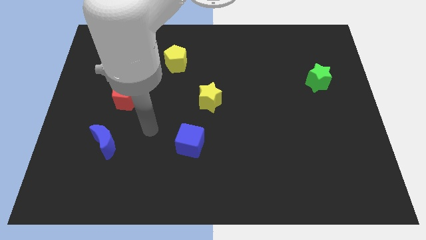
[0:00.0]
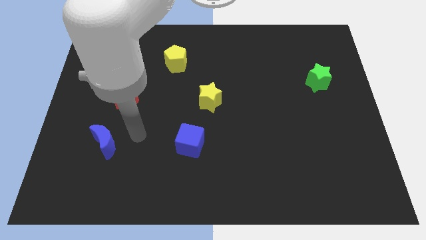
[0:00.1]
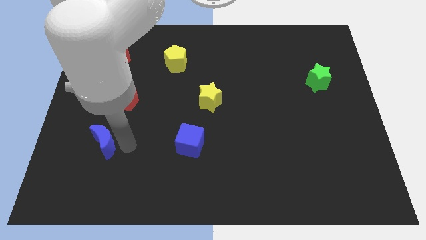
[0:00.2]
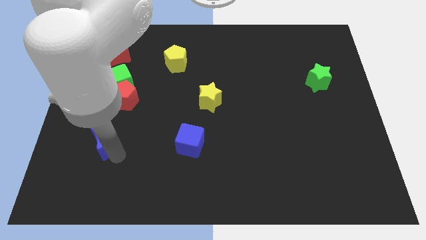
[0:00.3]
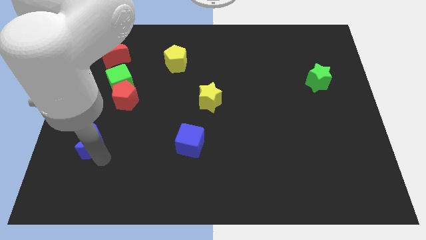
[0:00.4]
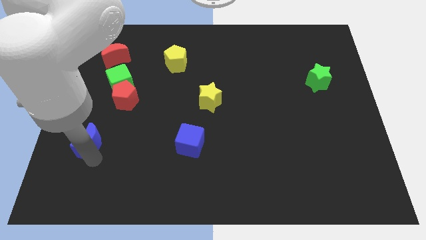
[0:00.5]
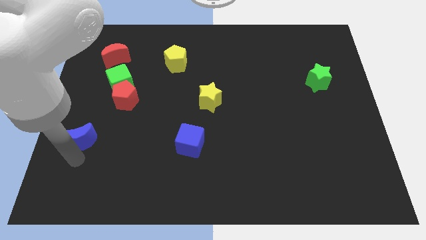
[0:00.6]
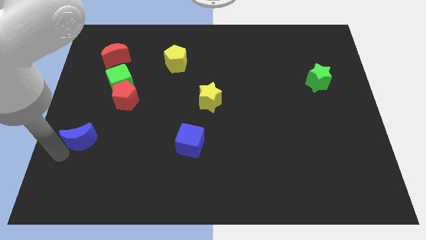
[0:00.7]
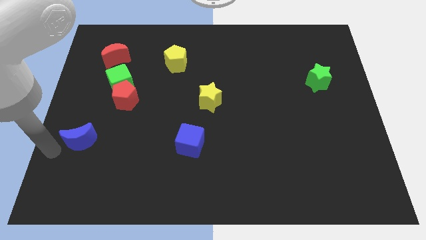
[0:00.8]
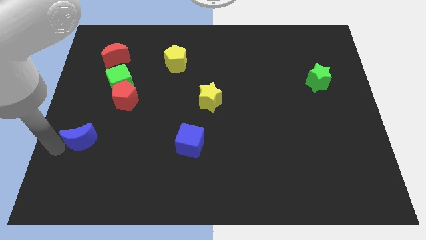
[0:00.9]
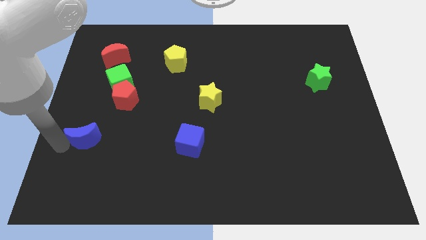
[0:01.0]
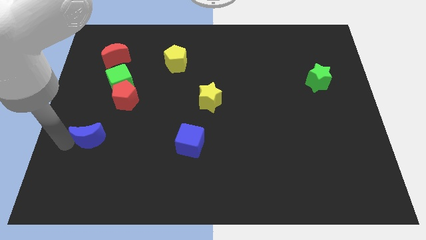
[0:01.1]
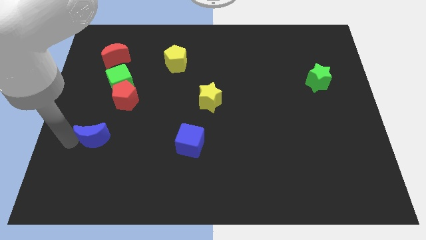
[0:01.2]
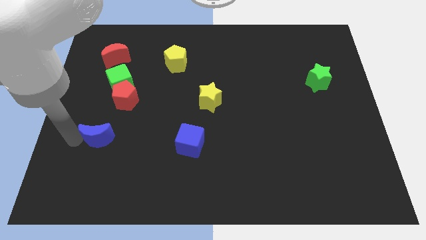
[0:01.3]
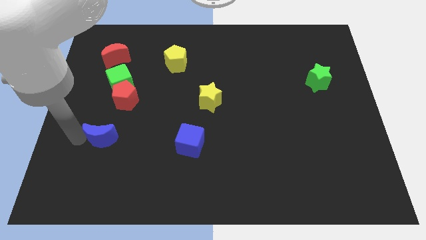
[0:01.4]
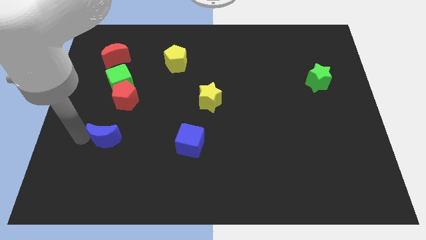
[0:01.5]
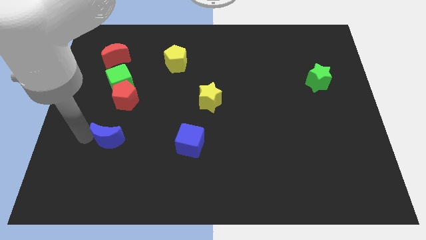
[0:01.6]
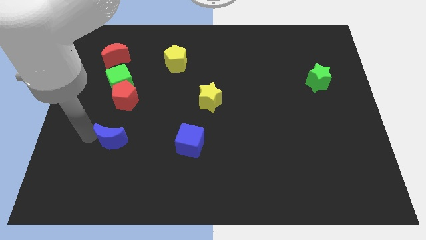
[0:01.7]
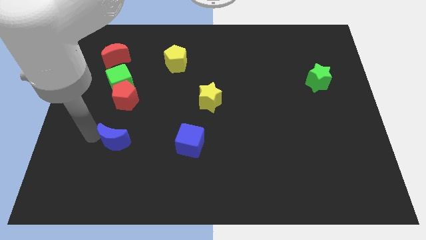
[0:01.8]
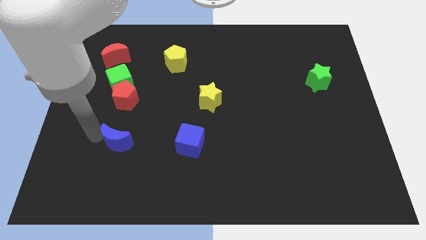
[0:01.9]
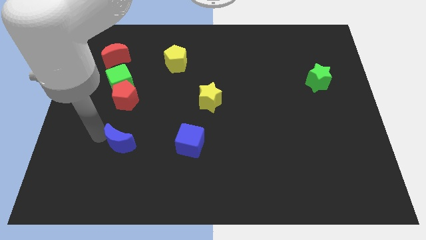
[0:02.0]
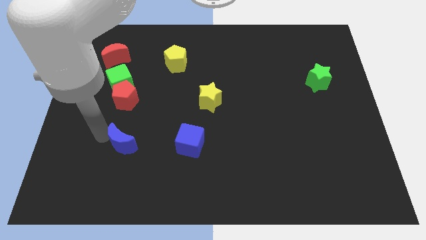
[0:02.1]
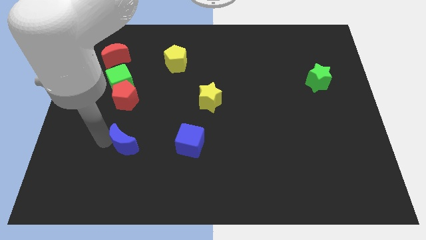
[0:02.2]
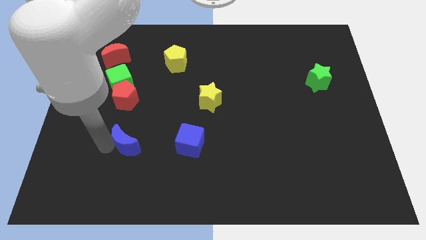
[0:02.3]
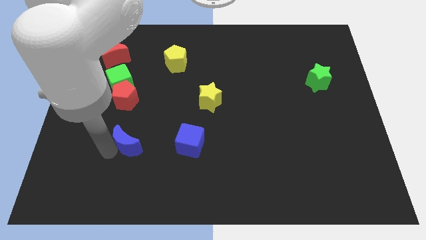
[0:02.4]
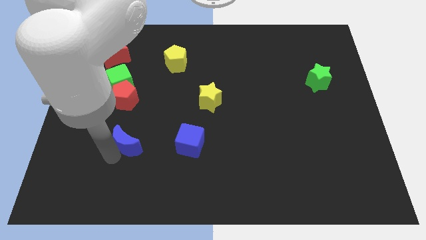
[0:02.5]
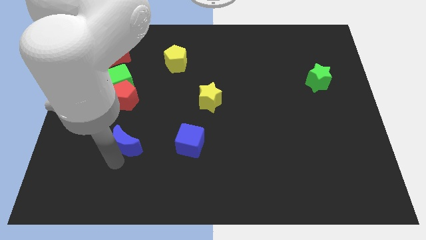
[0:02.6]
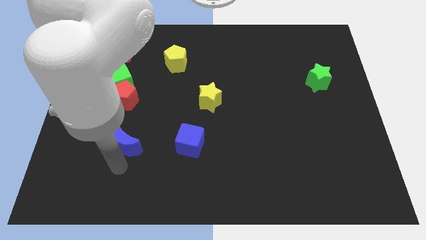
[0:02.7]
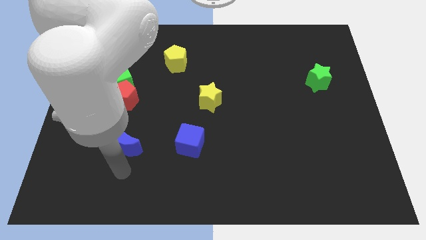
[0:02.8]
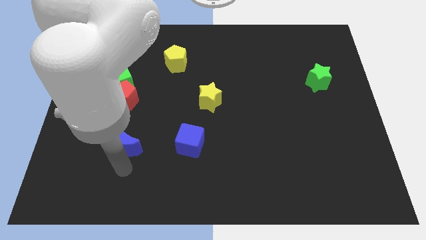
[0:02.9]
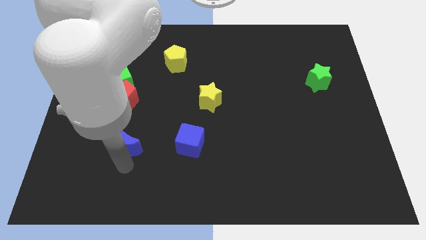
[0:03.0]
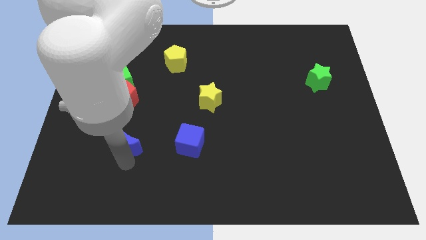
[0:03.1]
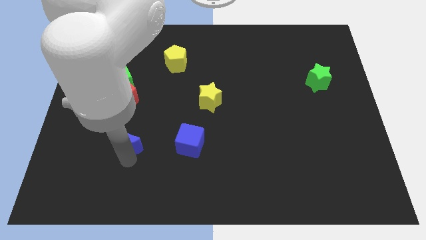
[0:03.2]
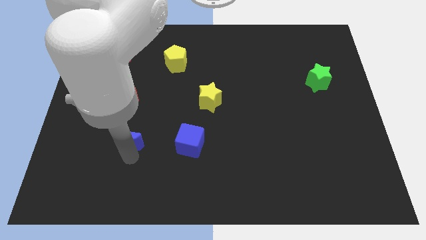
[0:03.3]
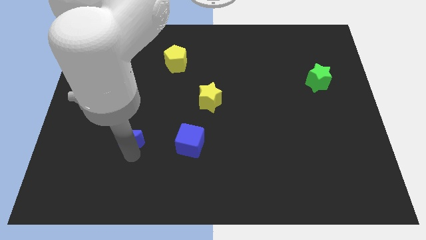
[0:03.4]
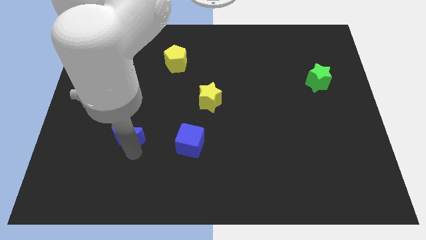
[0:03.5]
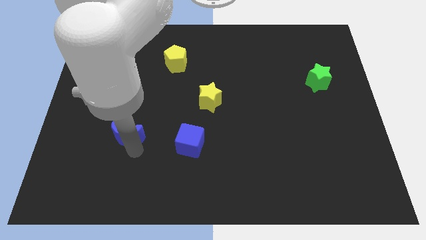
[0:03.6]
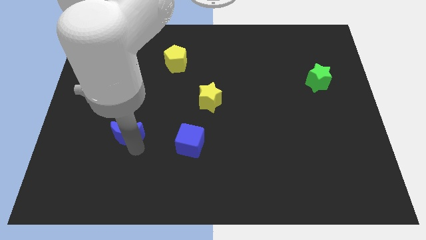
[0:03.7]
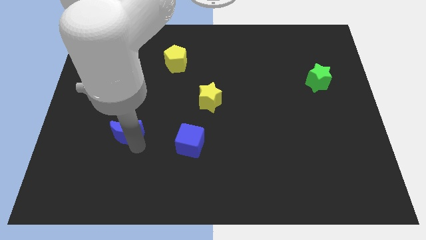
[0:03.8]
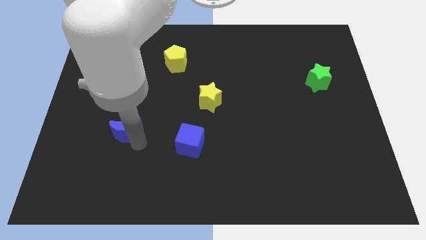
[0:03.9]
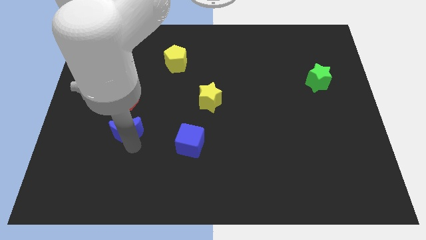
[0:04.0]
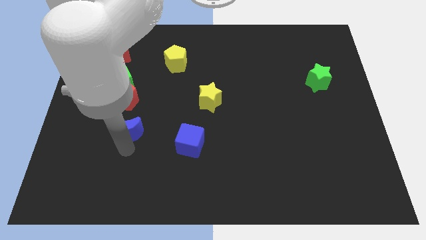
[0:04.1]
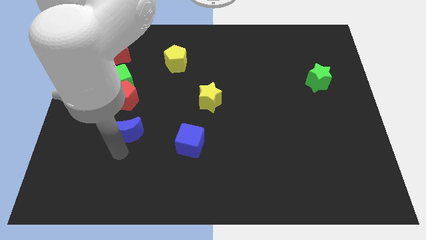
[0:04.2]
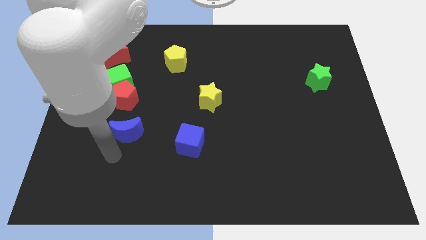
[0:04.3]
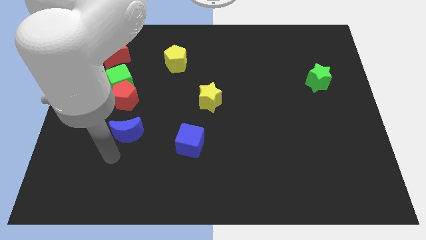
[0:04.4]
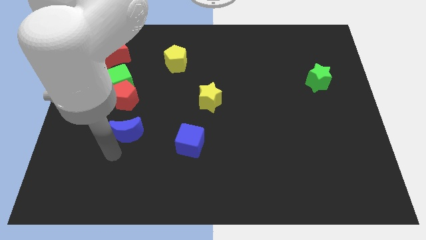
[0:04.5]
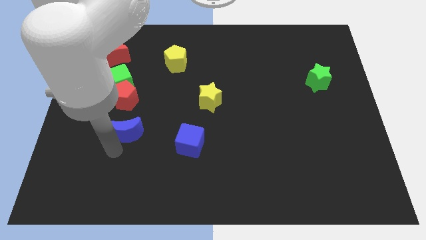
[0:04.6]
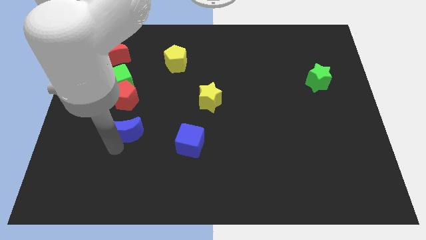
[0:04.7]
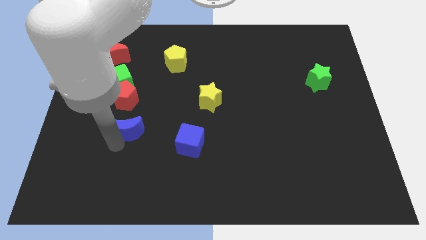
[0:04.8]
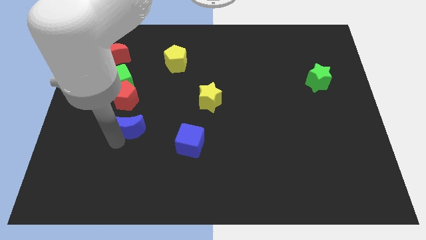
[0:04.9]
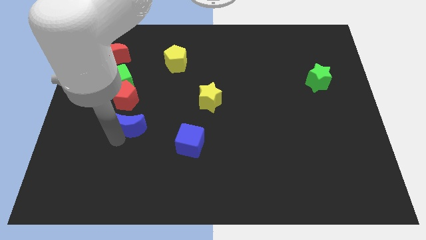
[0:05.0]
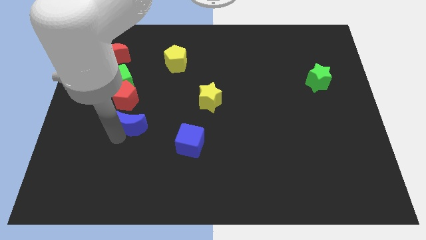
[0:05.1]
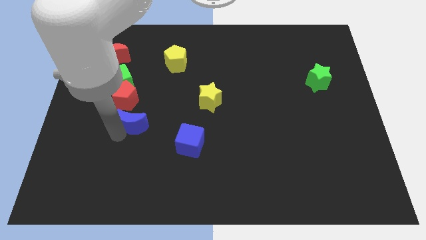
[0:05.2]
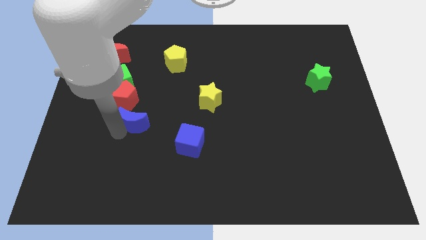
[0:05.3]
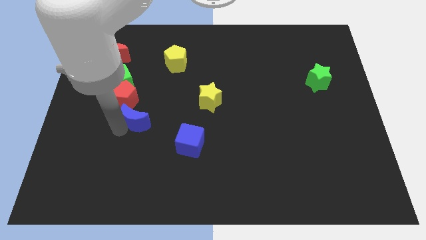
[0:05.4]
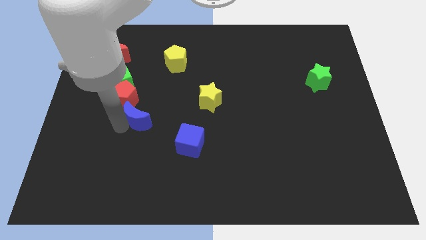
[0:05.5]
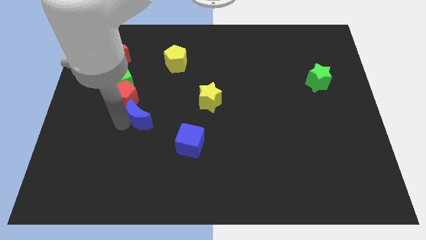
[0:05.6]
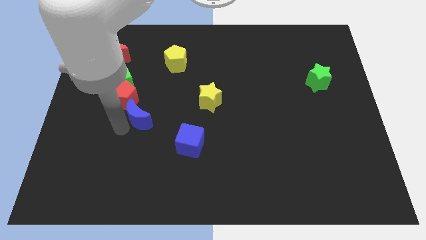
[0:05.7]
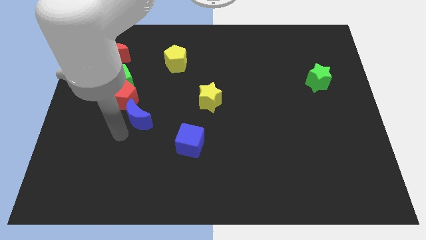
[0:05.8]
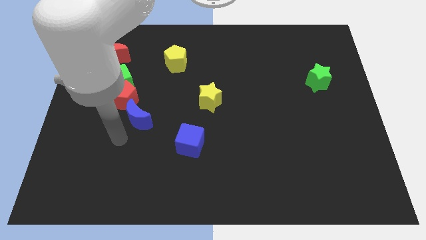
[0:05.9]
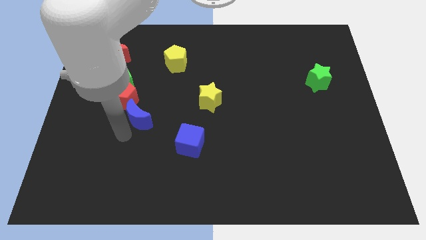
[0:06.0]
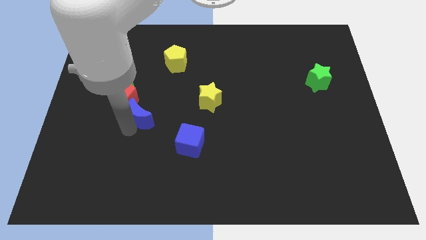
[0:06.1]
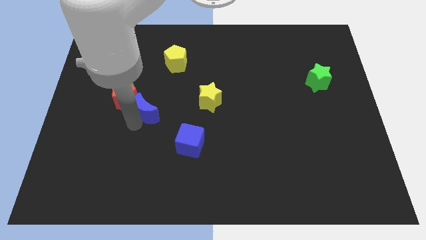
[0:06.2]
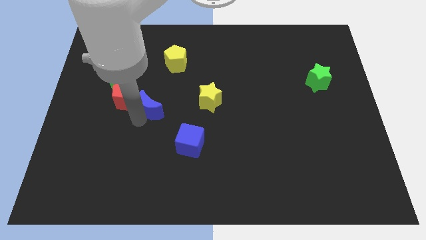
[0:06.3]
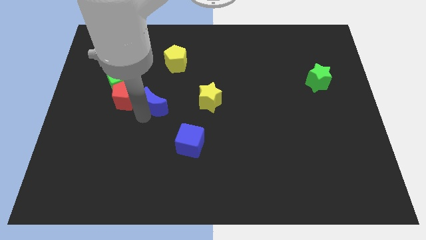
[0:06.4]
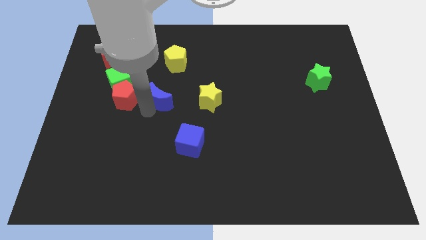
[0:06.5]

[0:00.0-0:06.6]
put the blue moon to the bottom of the yellow pentagon

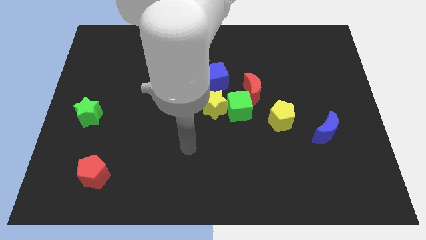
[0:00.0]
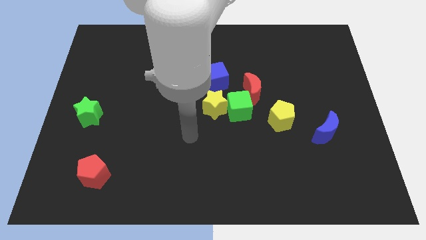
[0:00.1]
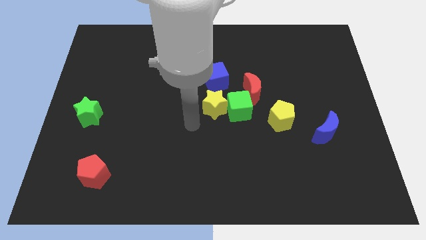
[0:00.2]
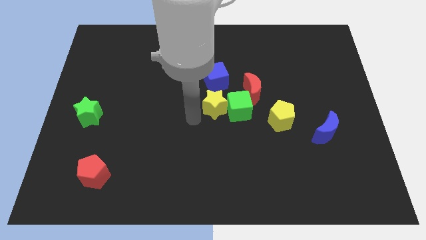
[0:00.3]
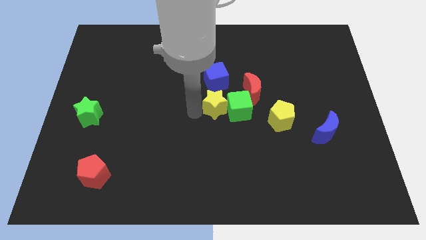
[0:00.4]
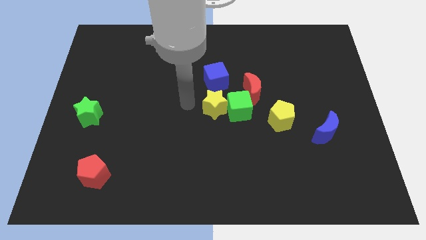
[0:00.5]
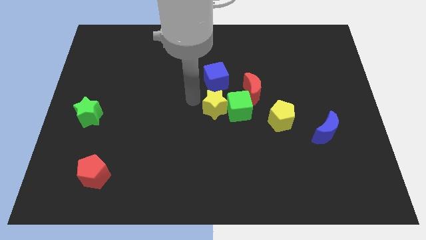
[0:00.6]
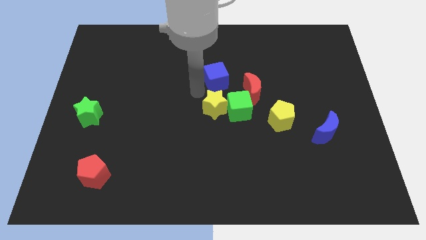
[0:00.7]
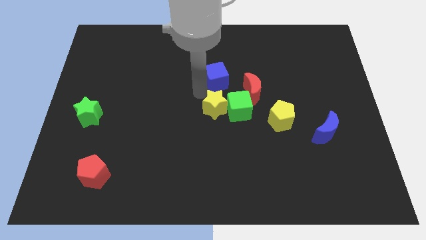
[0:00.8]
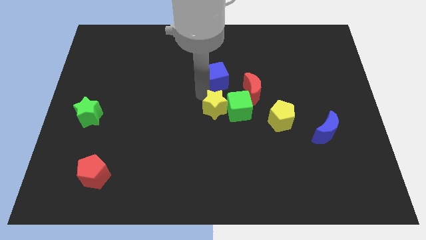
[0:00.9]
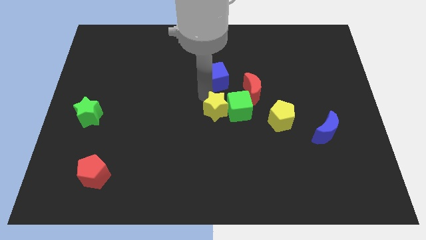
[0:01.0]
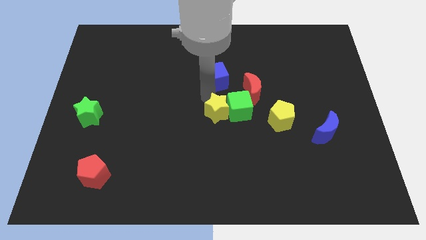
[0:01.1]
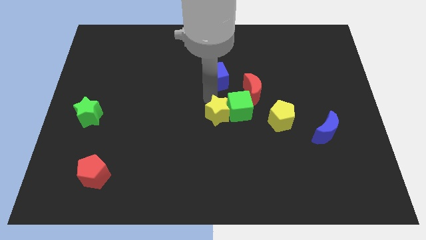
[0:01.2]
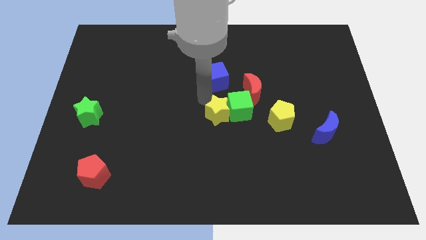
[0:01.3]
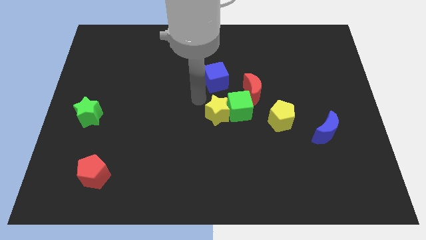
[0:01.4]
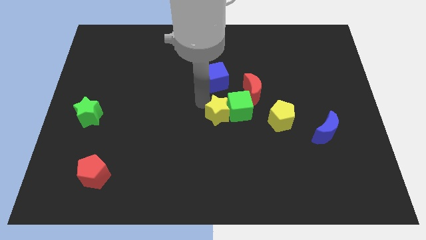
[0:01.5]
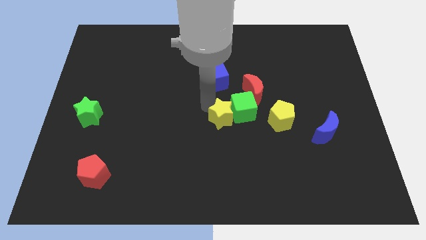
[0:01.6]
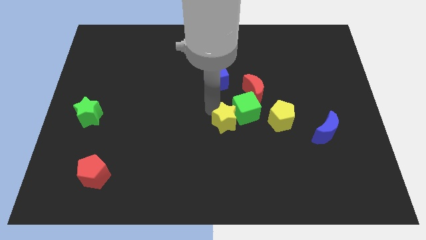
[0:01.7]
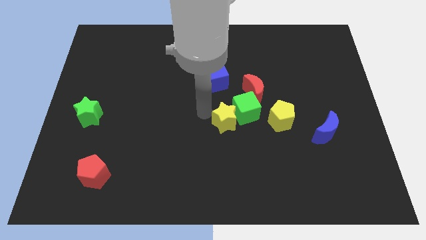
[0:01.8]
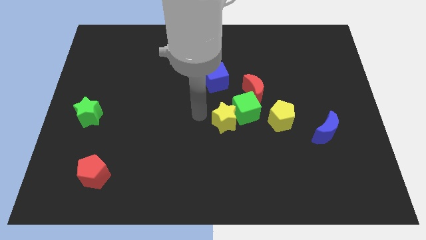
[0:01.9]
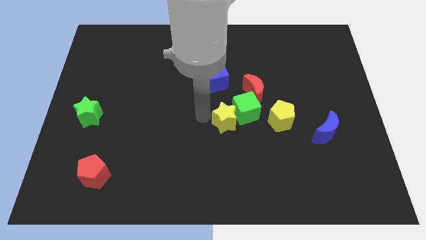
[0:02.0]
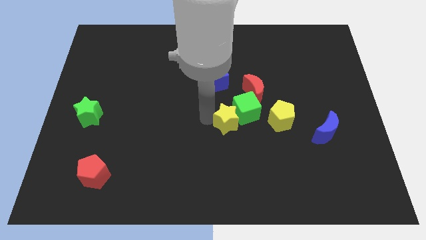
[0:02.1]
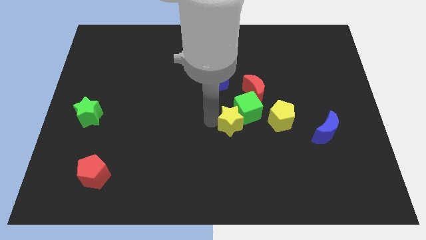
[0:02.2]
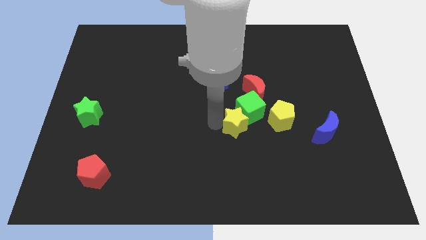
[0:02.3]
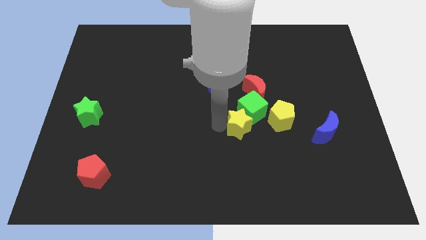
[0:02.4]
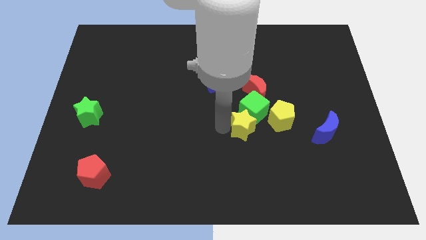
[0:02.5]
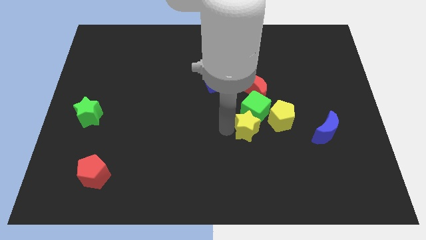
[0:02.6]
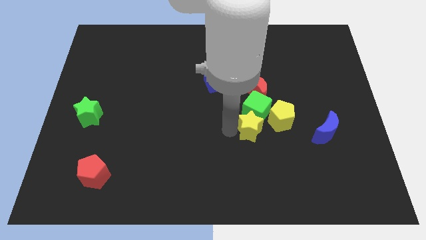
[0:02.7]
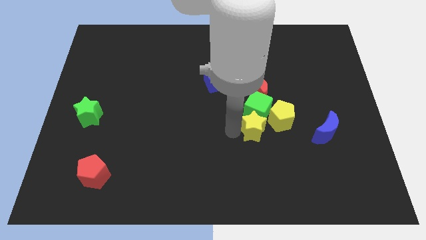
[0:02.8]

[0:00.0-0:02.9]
put the yellow star just left of the blue moon
